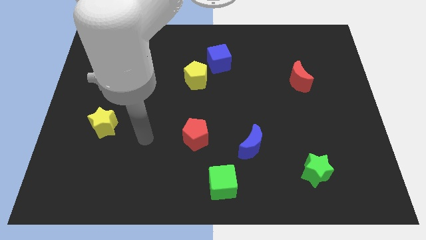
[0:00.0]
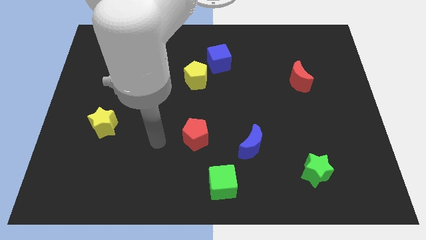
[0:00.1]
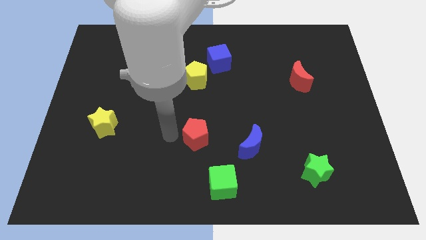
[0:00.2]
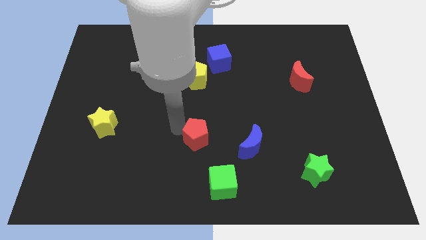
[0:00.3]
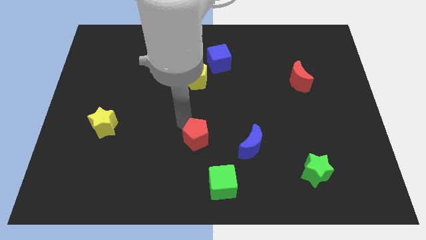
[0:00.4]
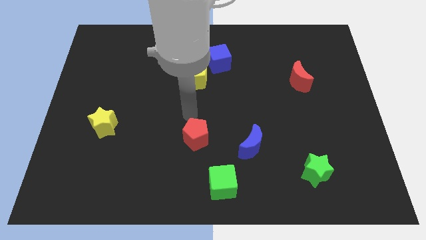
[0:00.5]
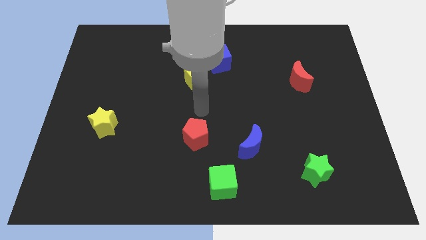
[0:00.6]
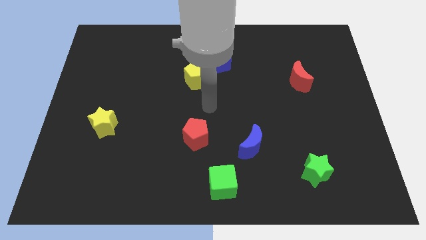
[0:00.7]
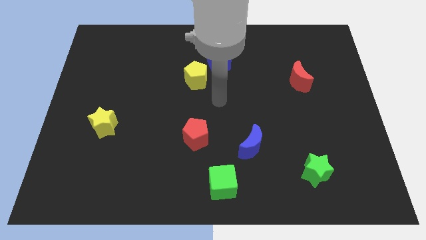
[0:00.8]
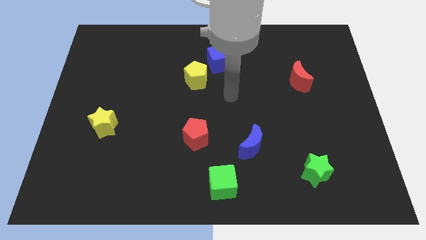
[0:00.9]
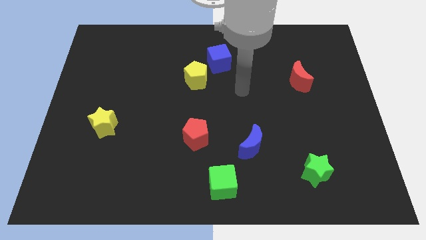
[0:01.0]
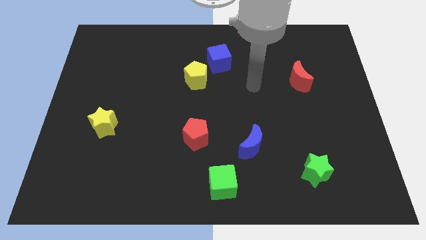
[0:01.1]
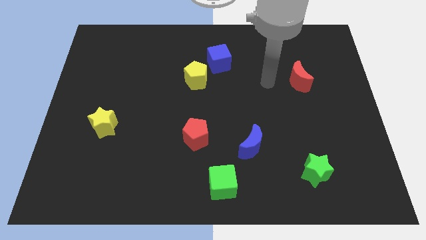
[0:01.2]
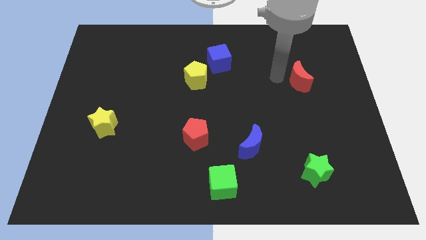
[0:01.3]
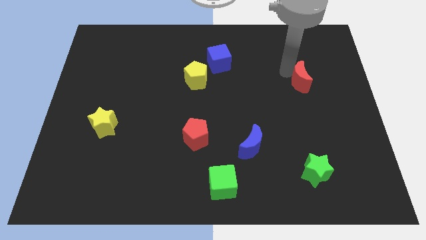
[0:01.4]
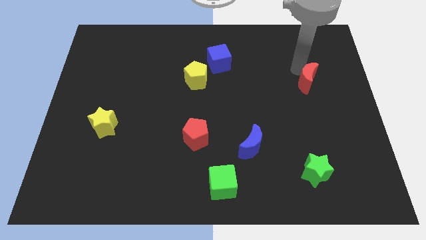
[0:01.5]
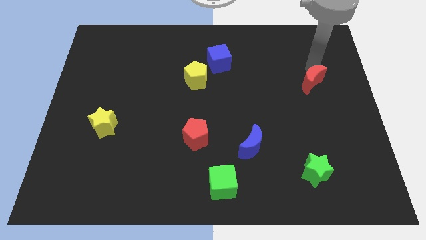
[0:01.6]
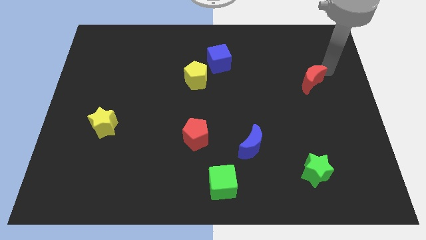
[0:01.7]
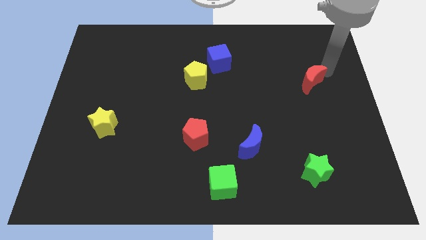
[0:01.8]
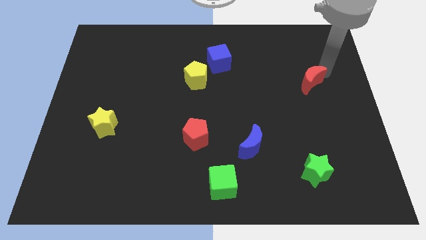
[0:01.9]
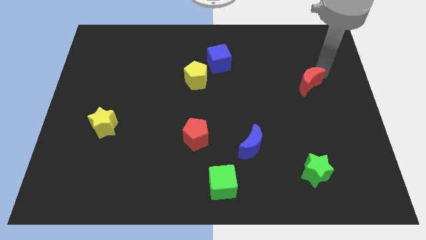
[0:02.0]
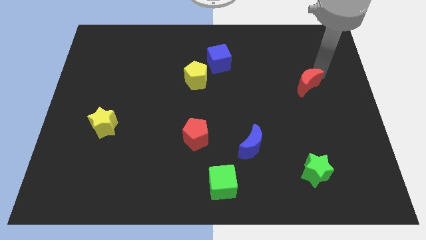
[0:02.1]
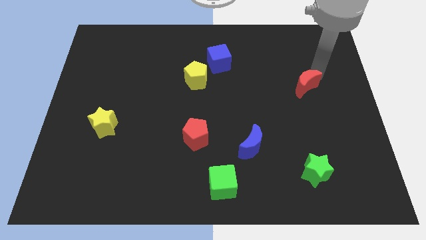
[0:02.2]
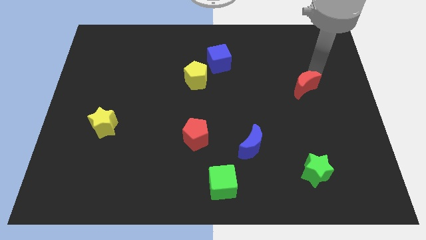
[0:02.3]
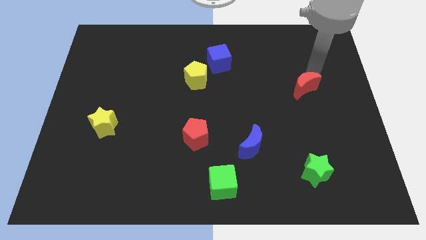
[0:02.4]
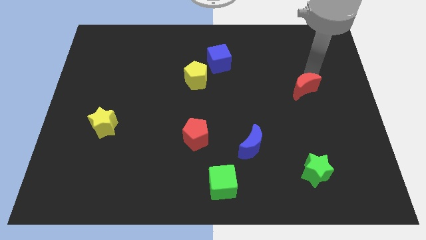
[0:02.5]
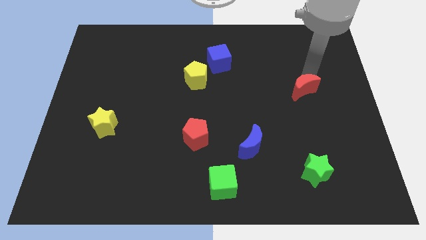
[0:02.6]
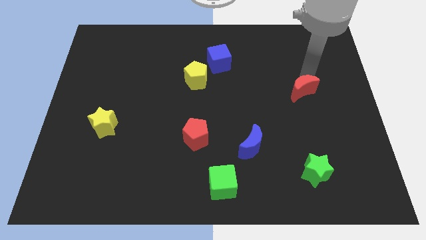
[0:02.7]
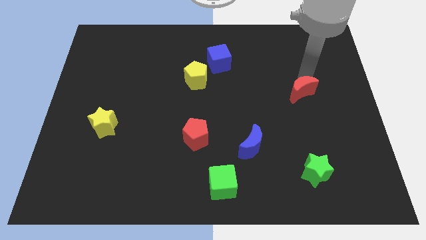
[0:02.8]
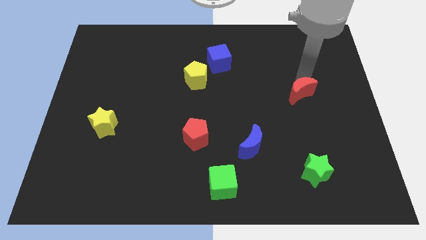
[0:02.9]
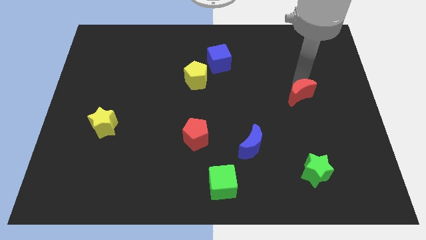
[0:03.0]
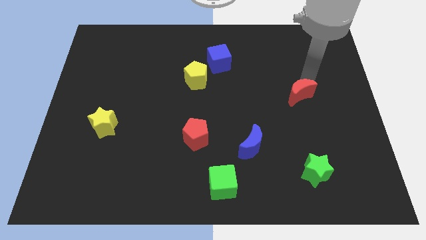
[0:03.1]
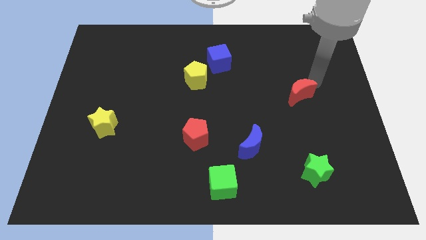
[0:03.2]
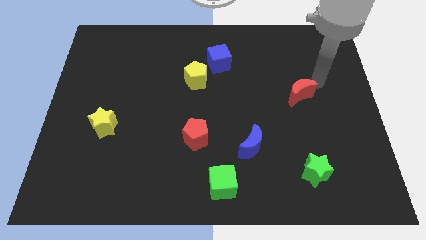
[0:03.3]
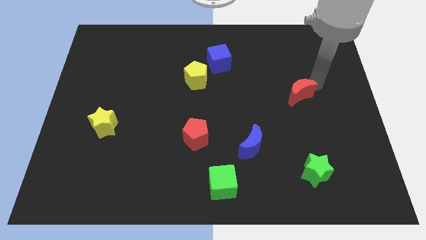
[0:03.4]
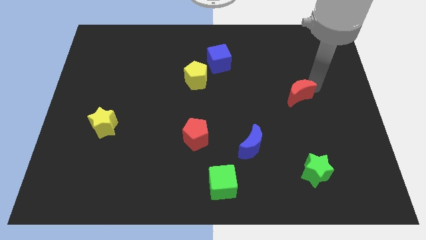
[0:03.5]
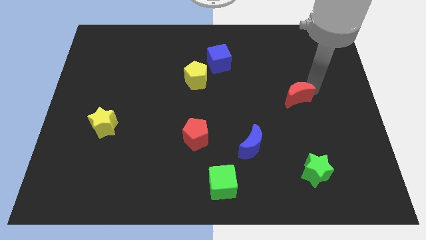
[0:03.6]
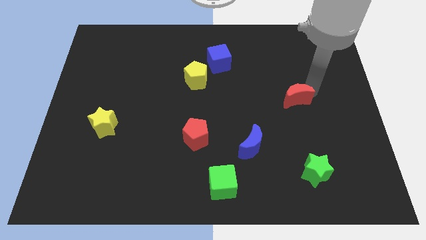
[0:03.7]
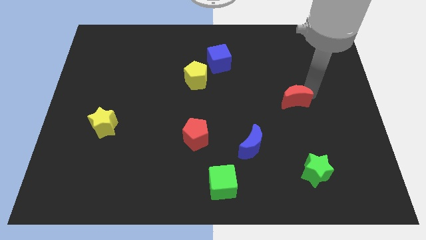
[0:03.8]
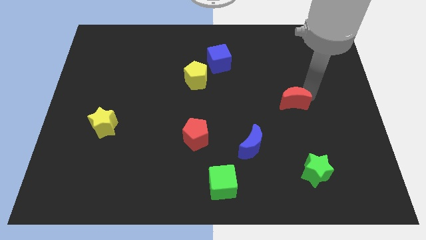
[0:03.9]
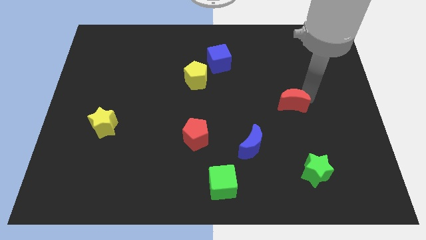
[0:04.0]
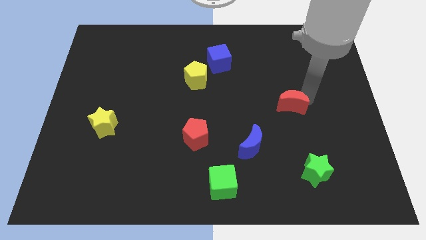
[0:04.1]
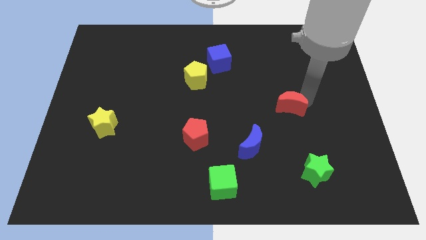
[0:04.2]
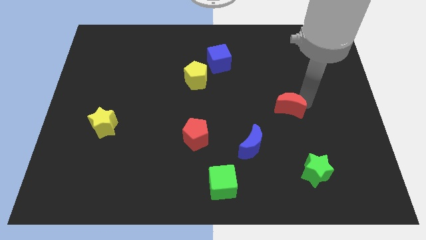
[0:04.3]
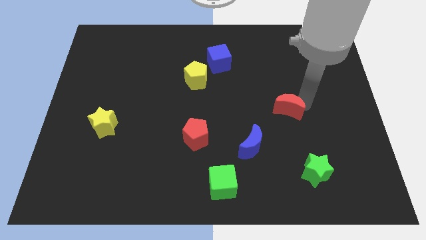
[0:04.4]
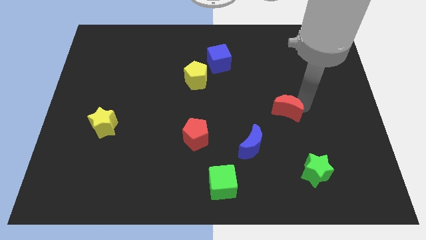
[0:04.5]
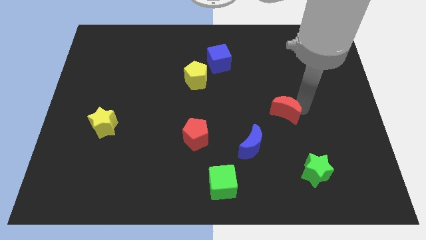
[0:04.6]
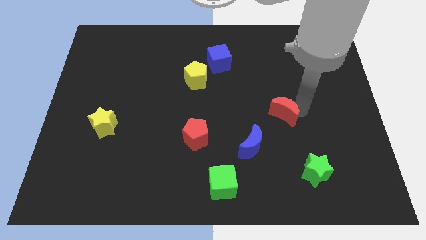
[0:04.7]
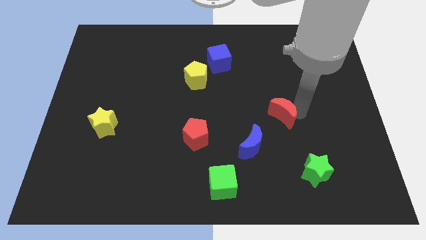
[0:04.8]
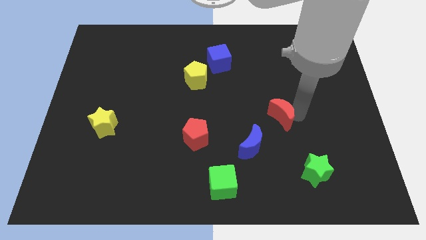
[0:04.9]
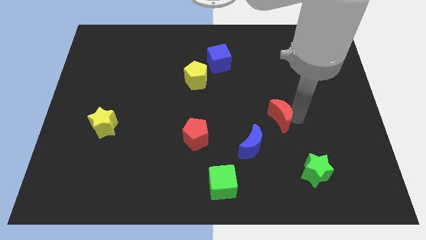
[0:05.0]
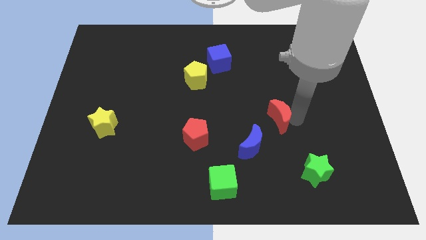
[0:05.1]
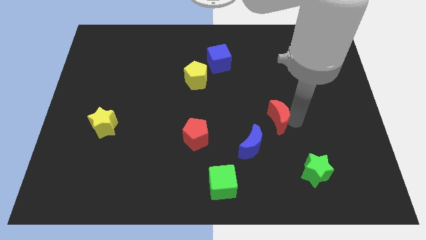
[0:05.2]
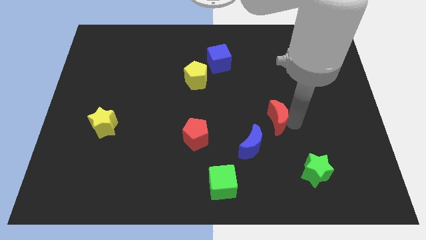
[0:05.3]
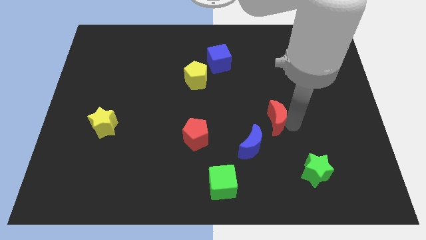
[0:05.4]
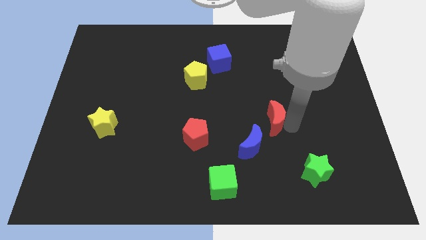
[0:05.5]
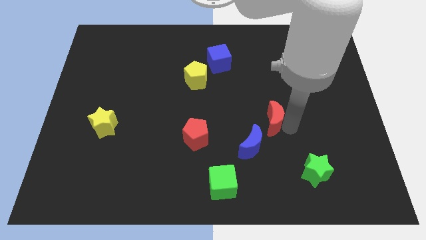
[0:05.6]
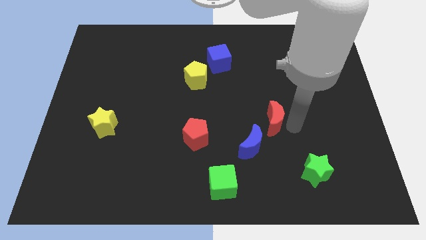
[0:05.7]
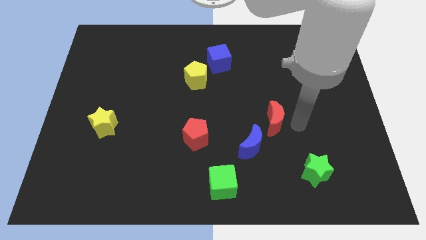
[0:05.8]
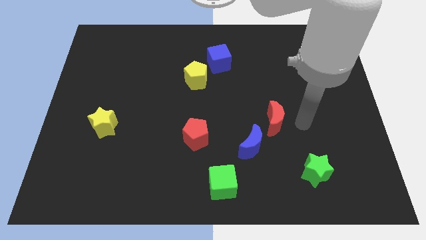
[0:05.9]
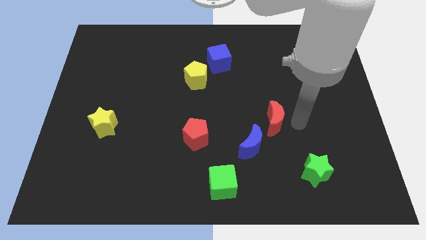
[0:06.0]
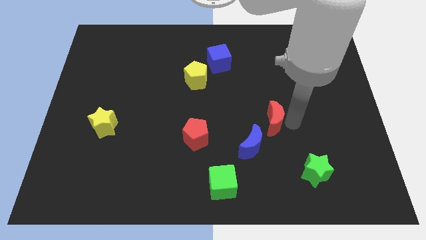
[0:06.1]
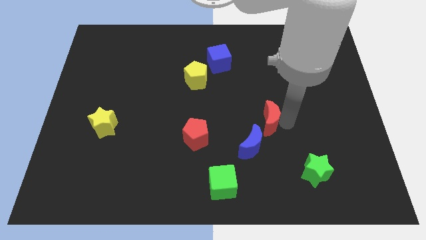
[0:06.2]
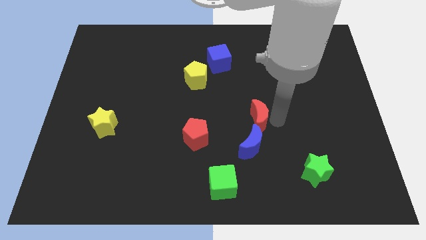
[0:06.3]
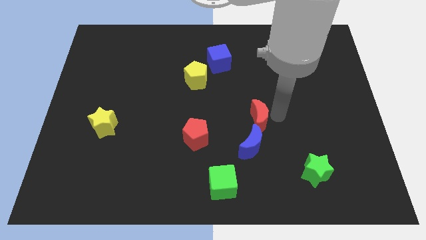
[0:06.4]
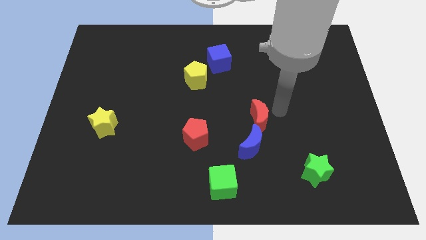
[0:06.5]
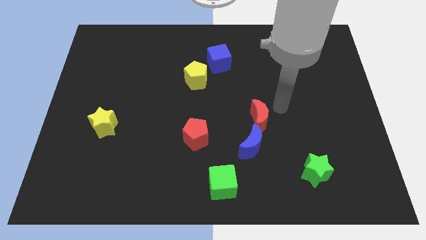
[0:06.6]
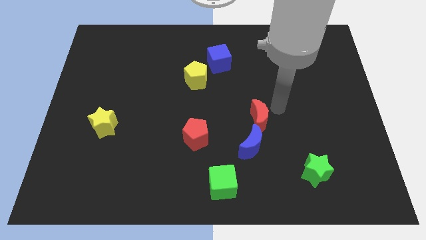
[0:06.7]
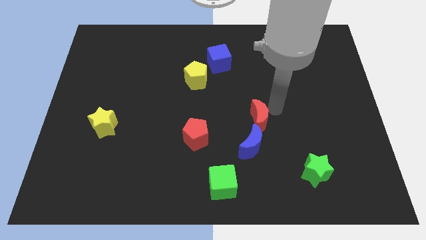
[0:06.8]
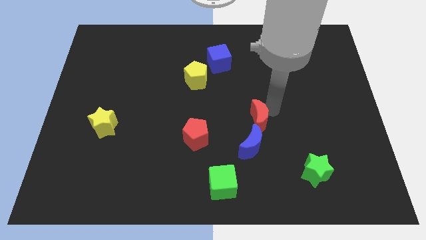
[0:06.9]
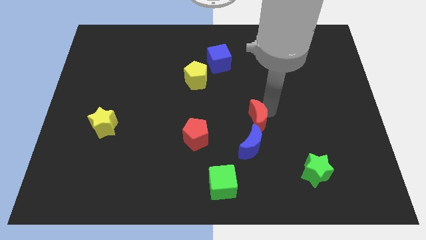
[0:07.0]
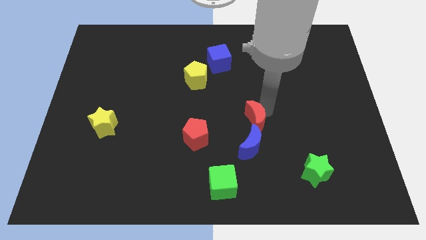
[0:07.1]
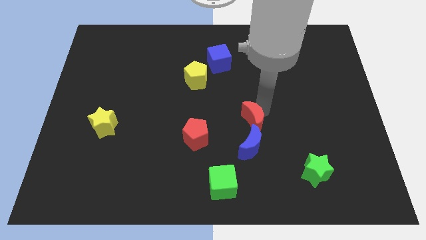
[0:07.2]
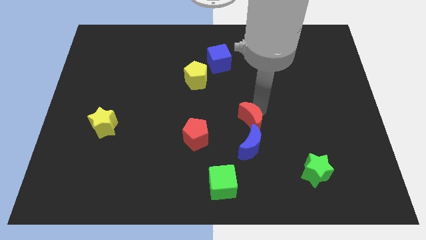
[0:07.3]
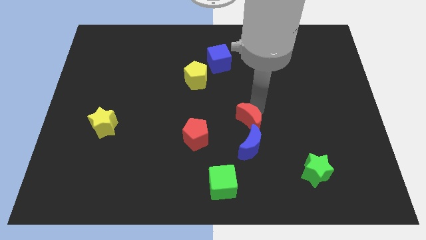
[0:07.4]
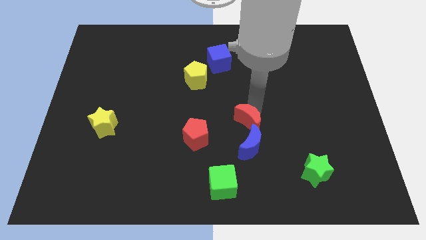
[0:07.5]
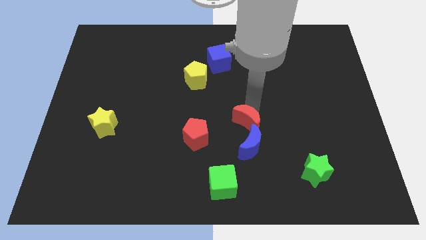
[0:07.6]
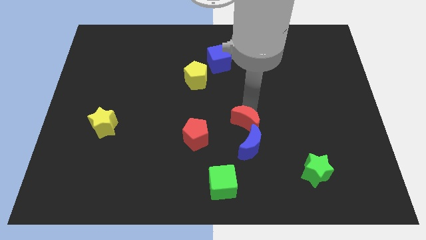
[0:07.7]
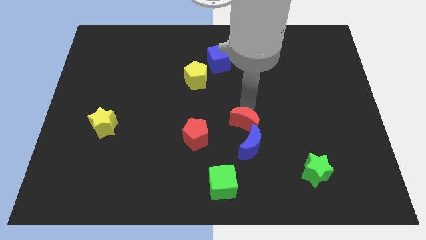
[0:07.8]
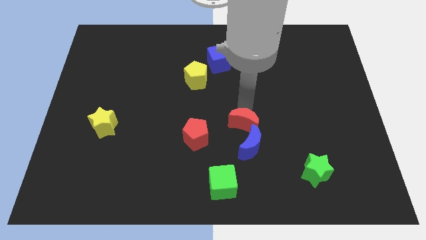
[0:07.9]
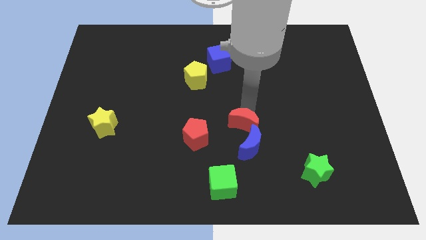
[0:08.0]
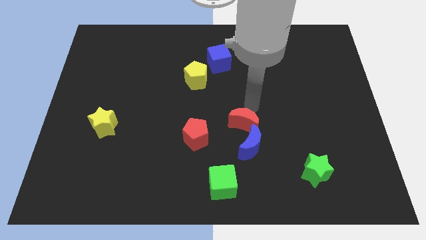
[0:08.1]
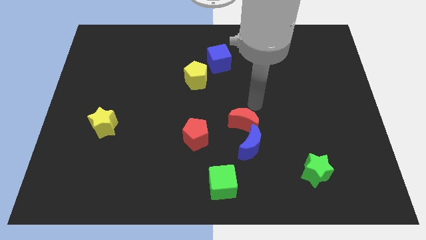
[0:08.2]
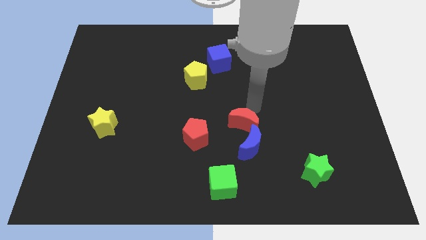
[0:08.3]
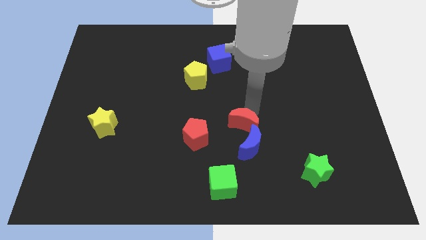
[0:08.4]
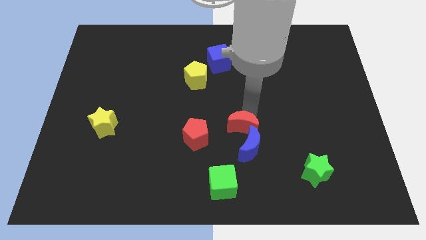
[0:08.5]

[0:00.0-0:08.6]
move the red moon downwards and then left
